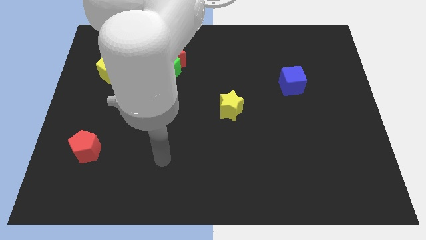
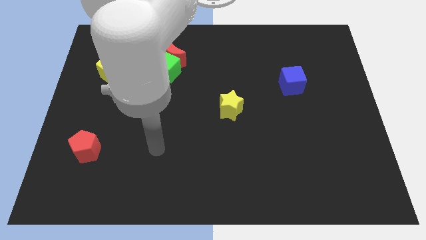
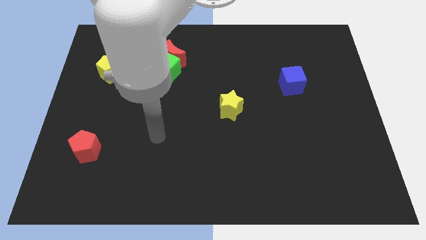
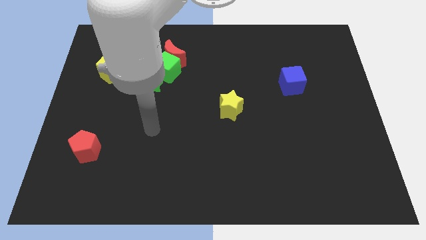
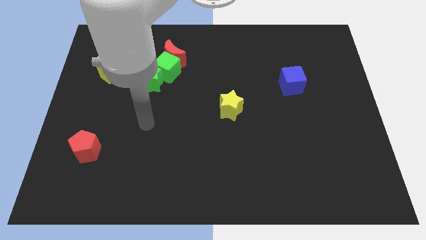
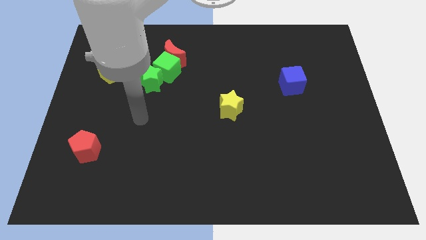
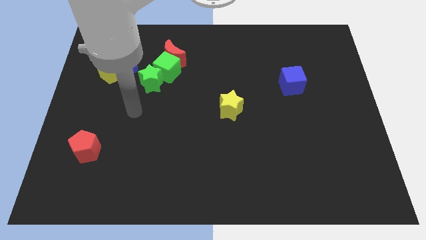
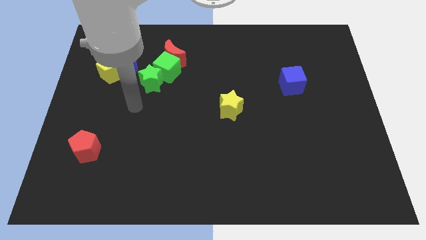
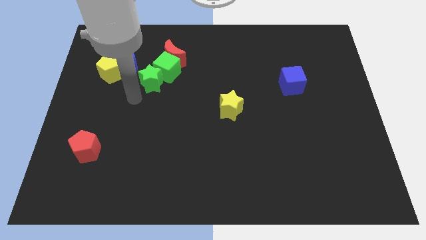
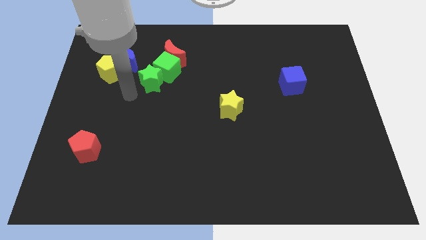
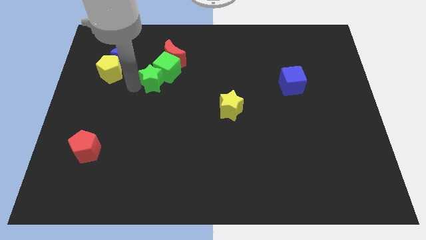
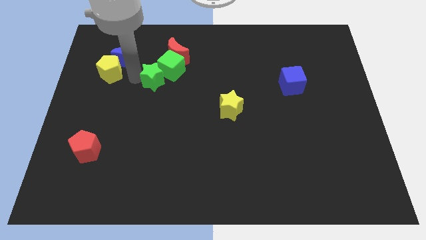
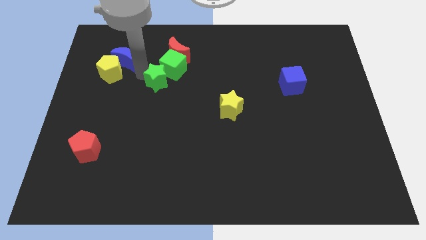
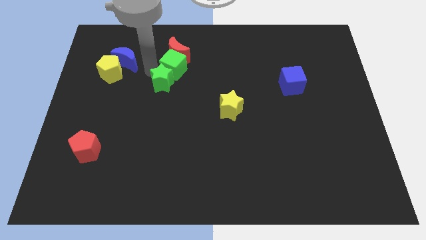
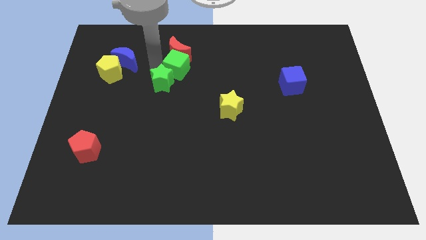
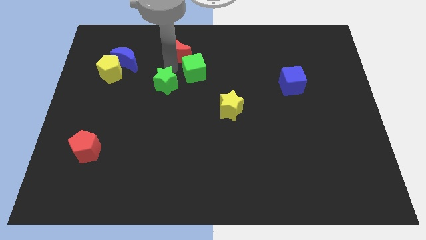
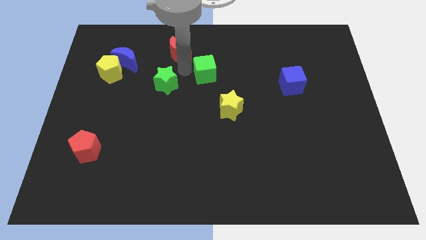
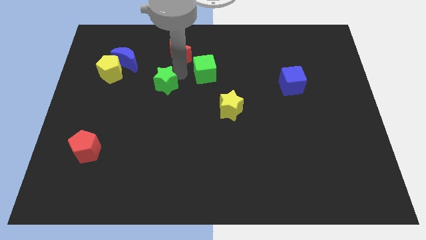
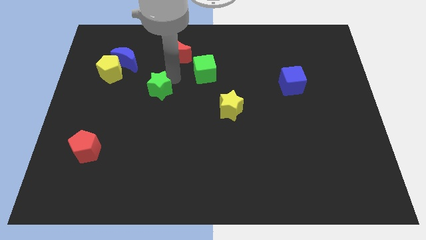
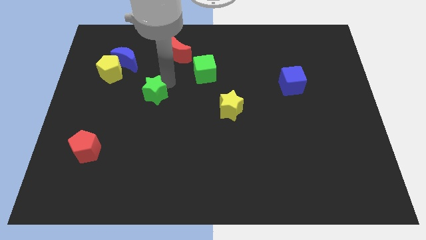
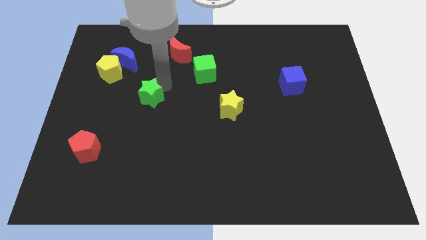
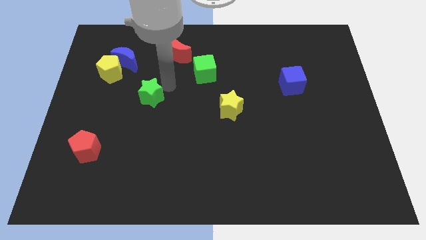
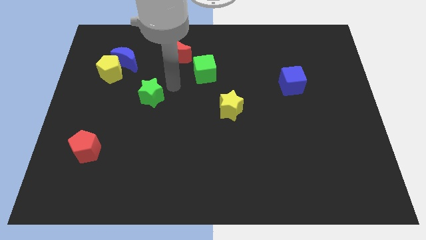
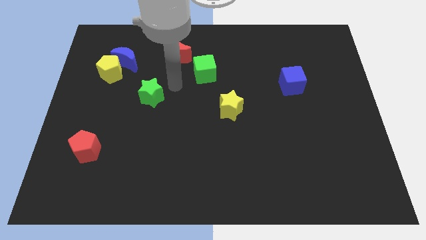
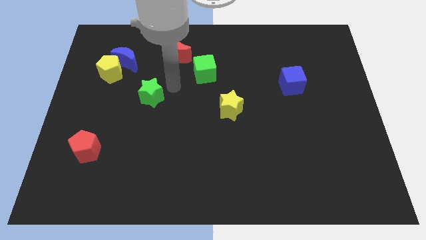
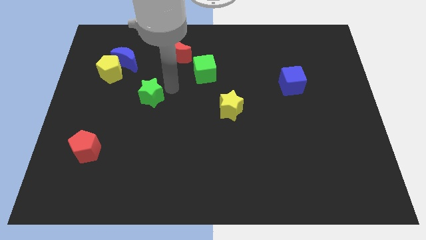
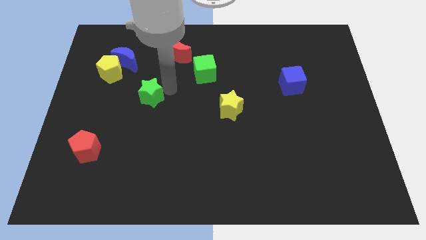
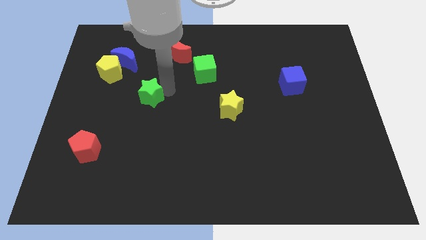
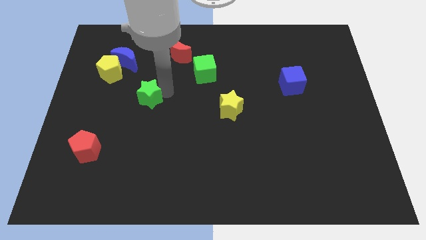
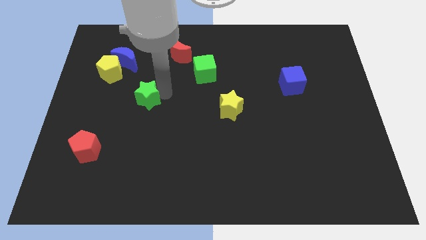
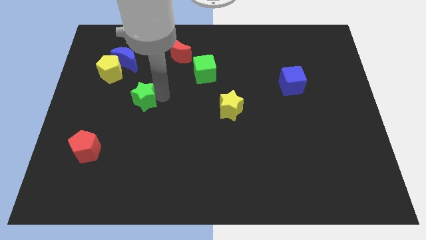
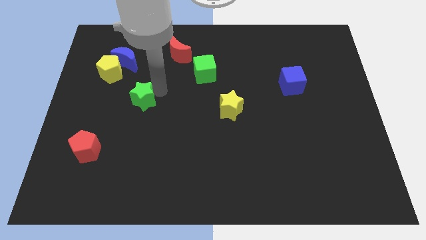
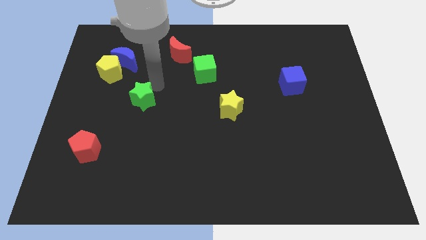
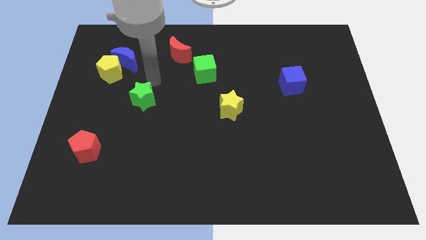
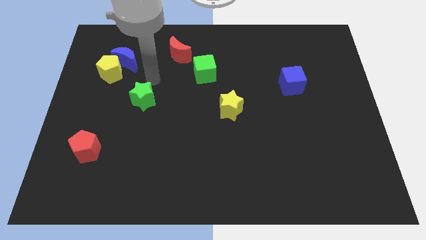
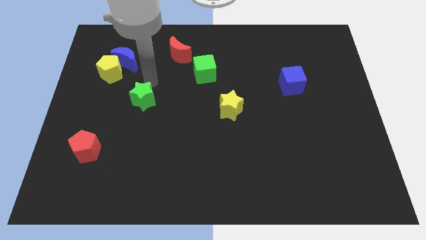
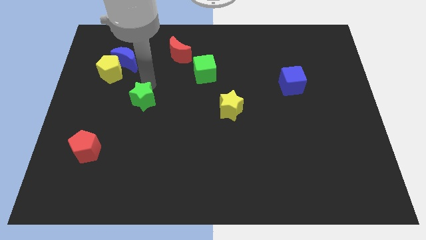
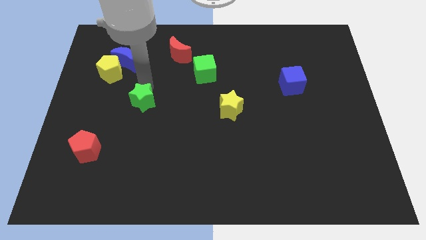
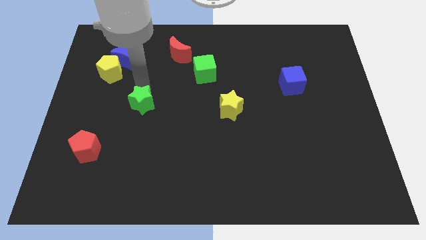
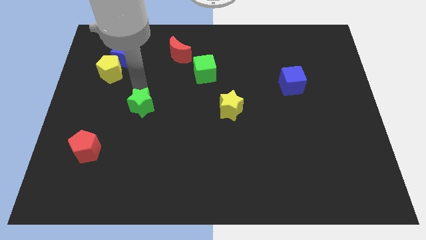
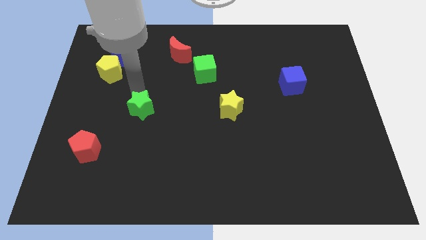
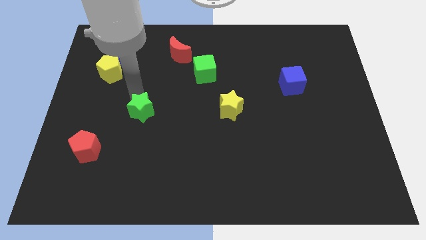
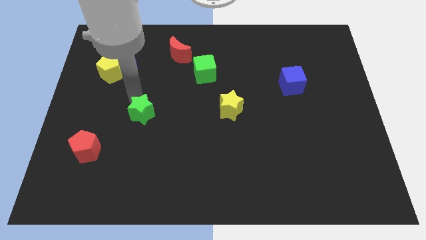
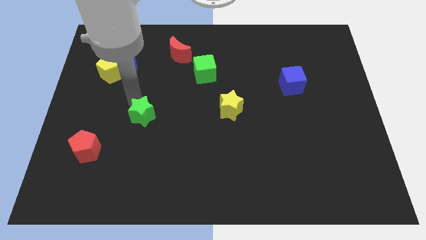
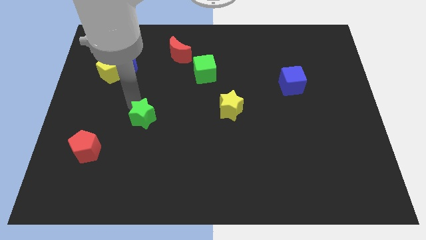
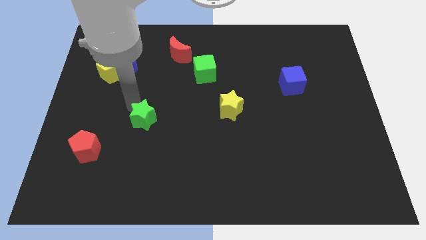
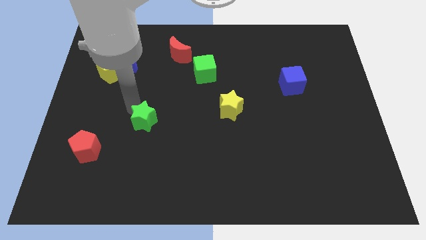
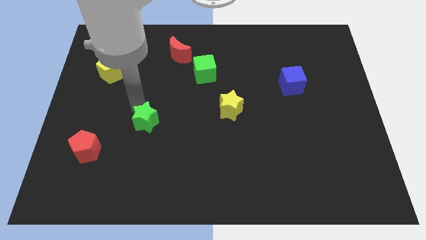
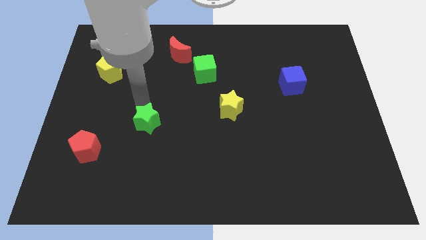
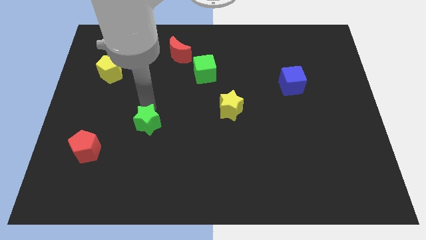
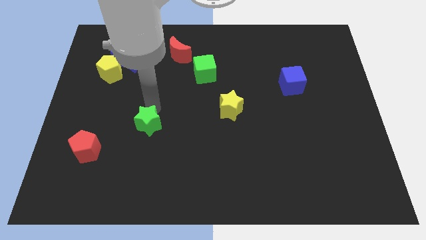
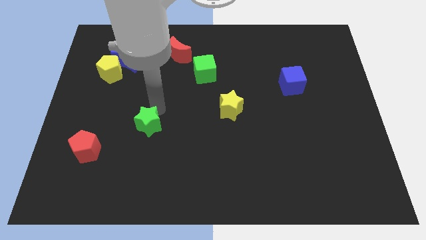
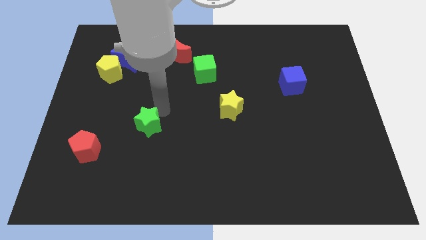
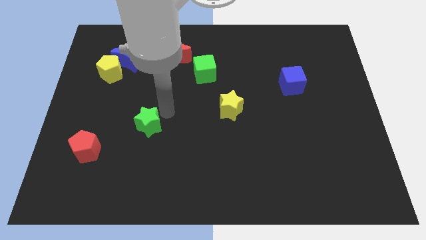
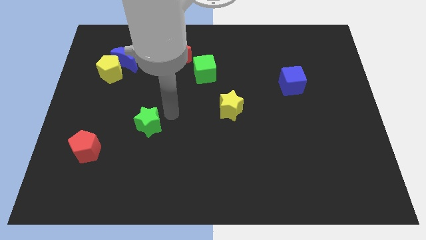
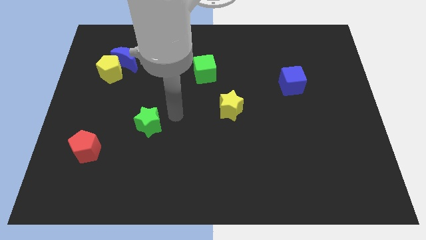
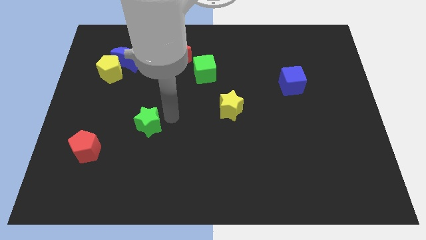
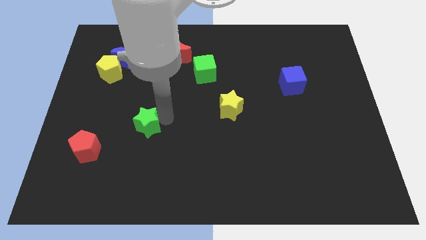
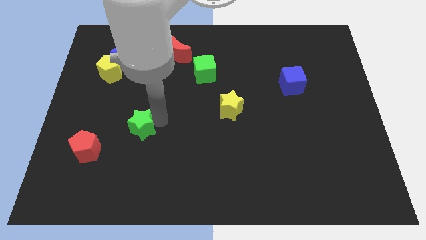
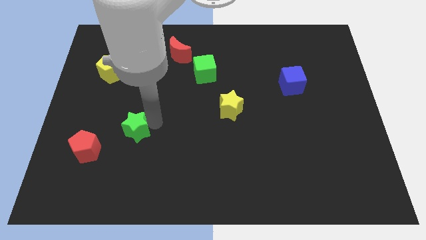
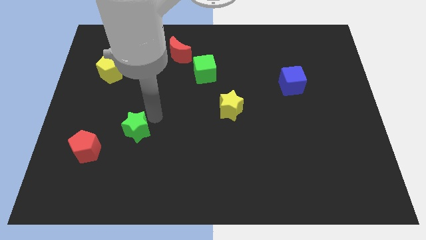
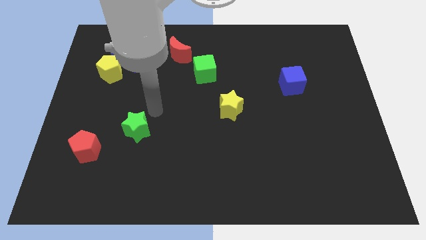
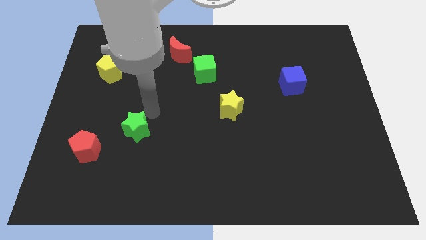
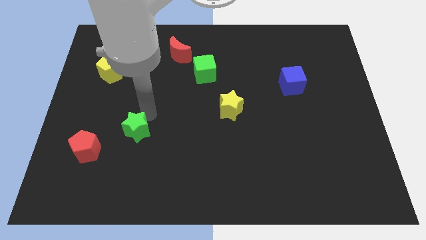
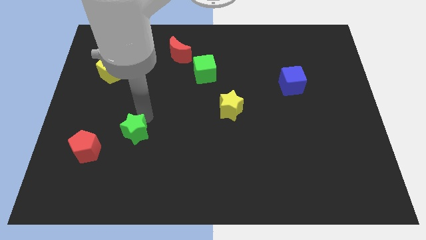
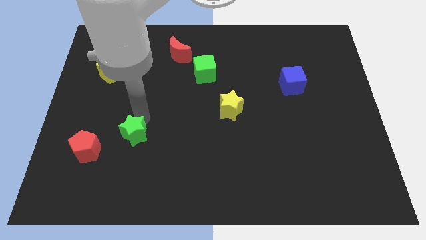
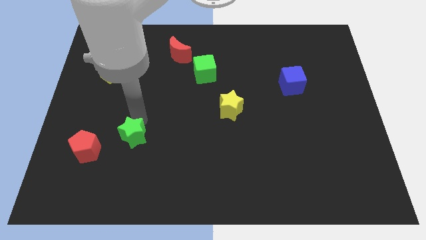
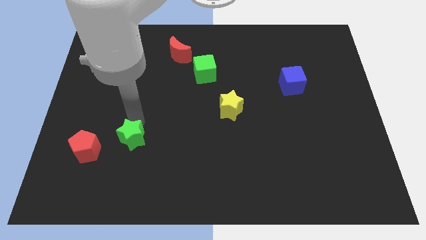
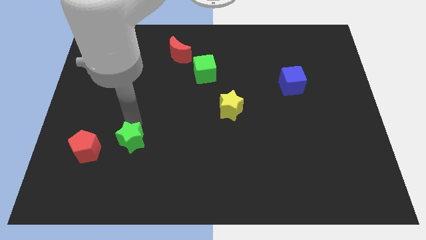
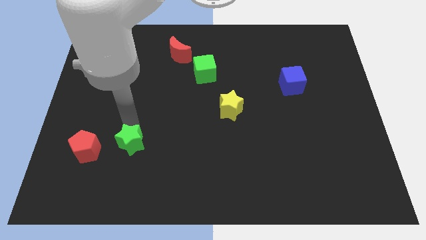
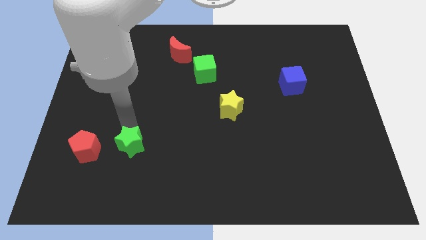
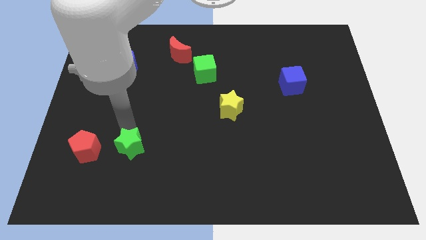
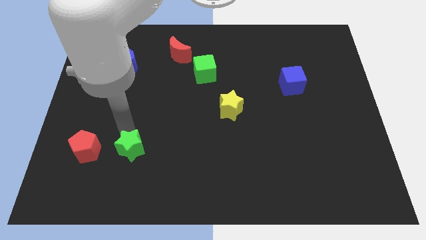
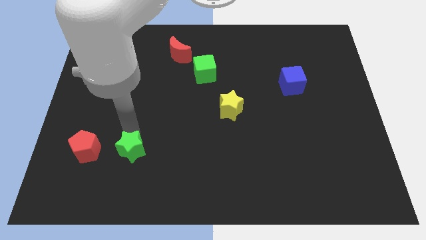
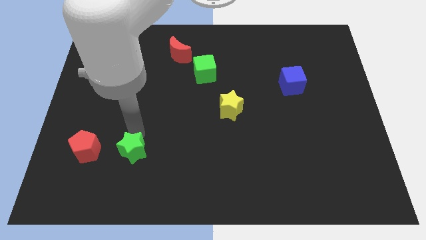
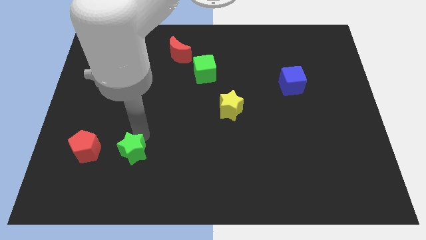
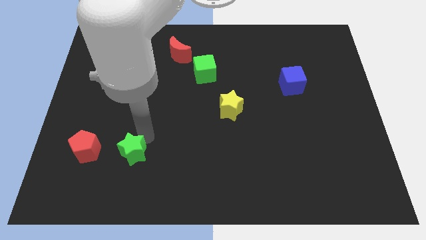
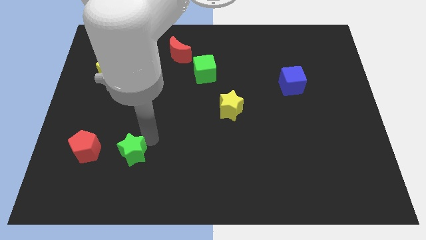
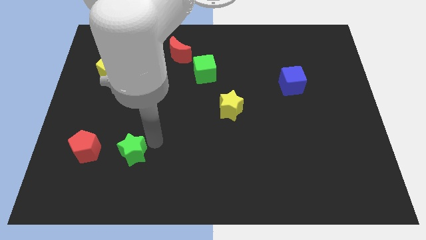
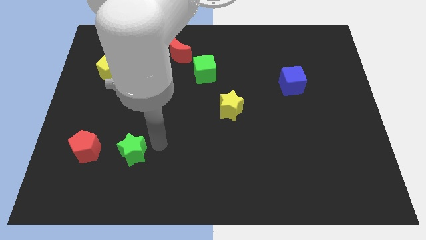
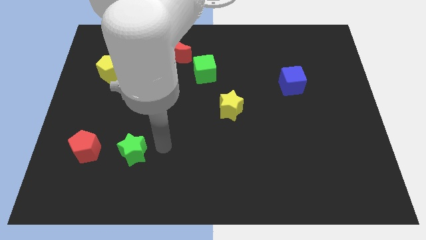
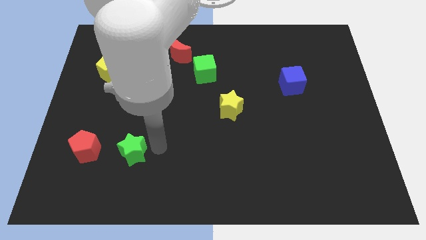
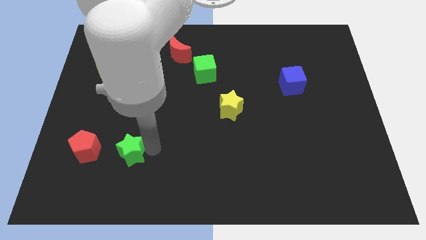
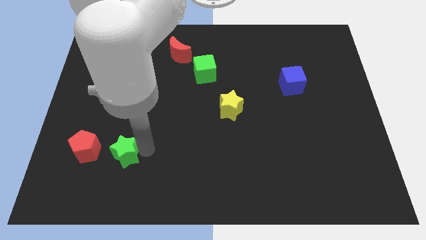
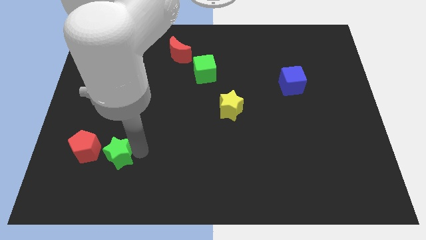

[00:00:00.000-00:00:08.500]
slide the green star diagonally down and to the right of the red pentagon
